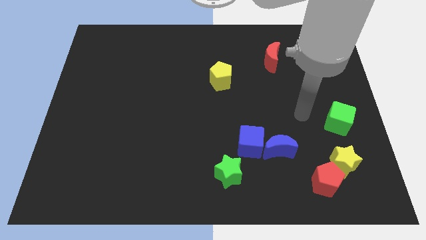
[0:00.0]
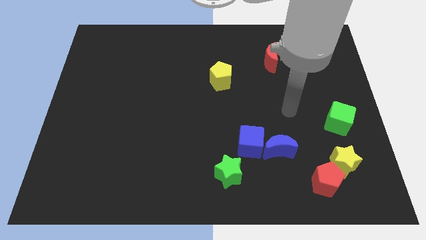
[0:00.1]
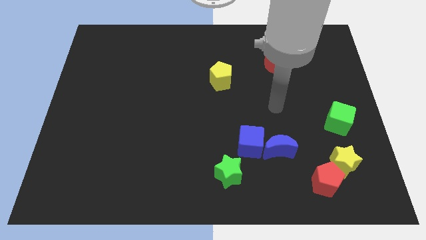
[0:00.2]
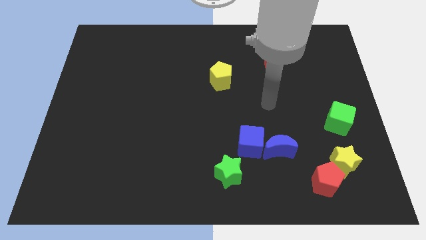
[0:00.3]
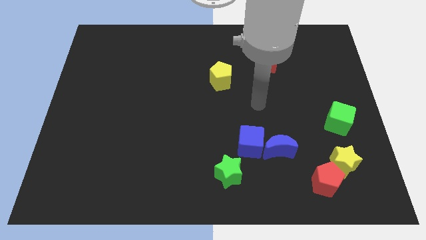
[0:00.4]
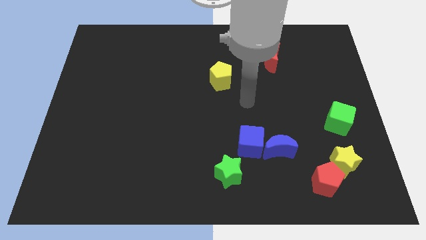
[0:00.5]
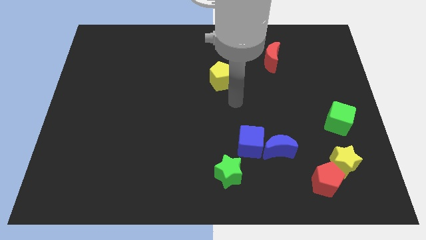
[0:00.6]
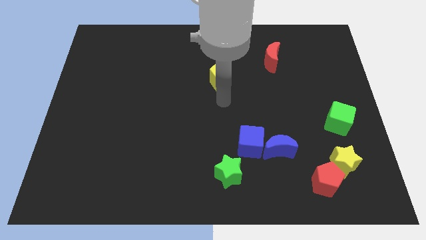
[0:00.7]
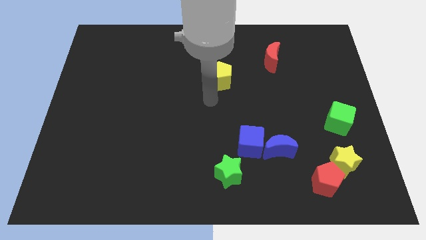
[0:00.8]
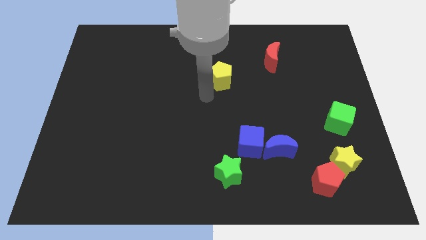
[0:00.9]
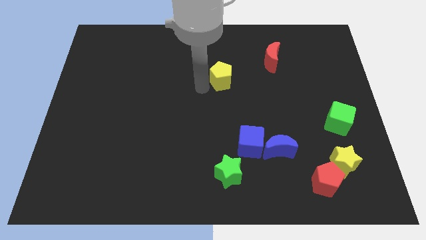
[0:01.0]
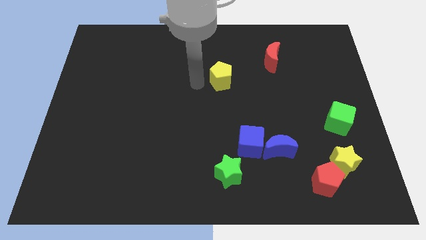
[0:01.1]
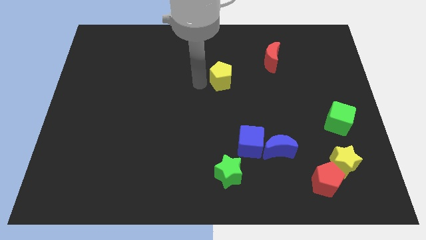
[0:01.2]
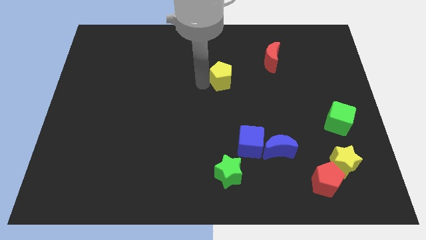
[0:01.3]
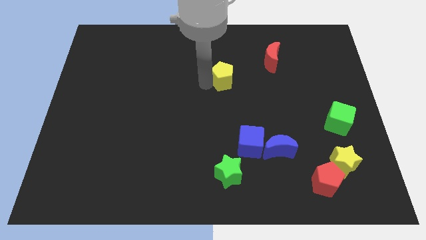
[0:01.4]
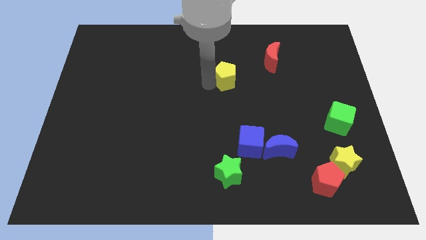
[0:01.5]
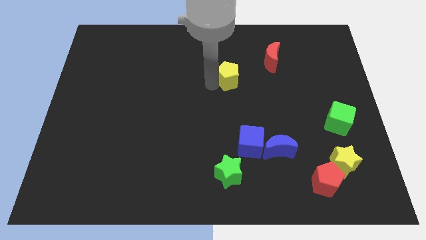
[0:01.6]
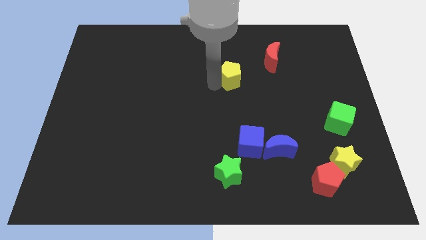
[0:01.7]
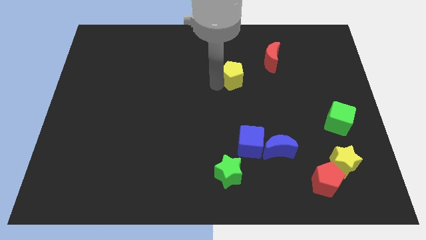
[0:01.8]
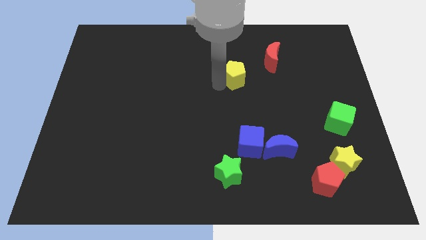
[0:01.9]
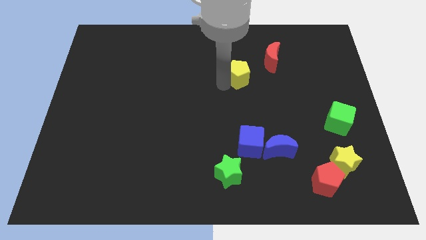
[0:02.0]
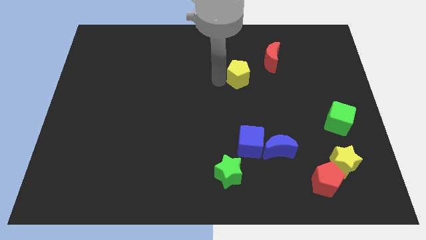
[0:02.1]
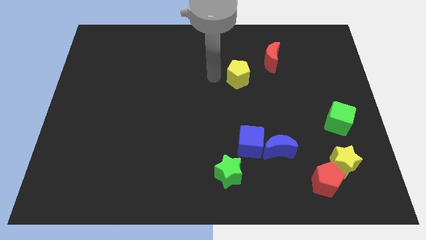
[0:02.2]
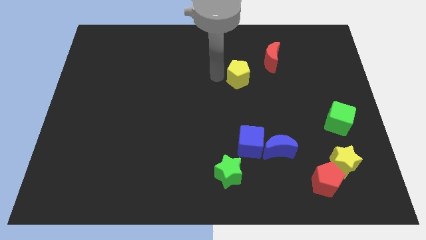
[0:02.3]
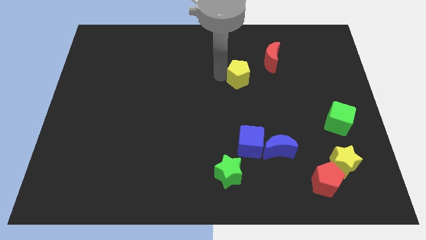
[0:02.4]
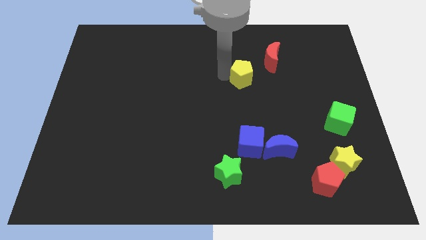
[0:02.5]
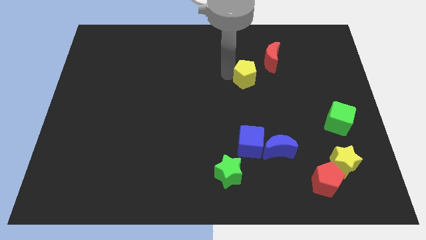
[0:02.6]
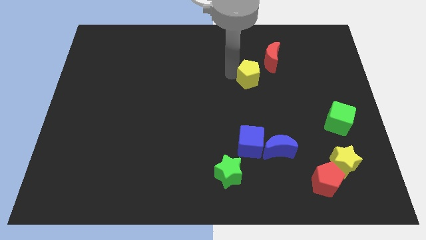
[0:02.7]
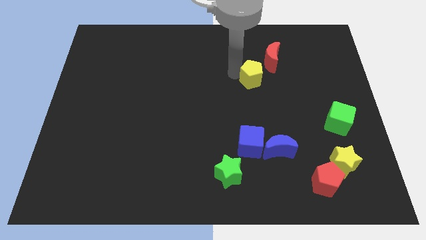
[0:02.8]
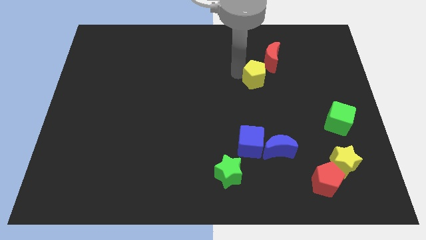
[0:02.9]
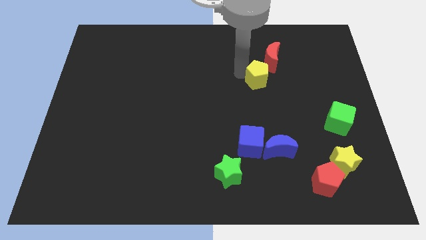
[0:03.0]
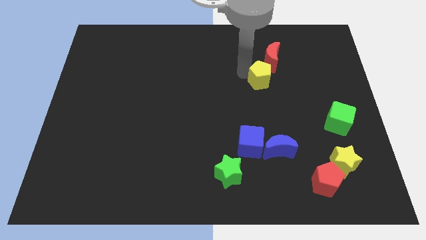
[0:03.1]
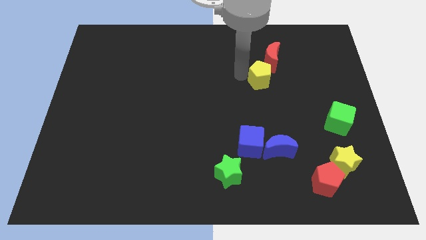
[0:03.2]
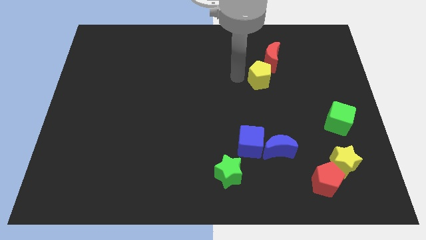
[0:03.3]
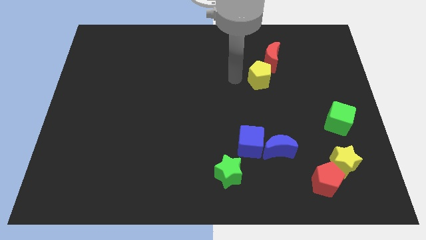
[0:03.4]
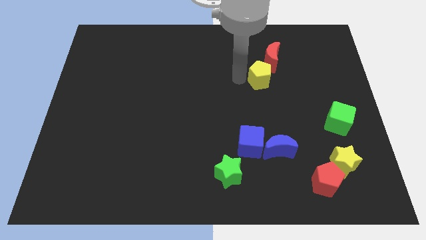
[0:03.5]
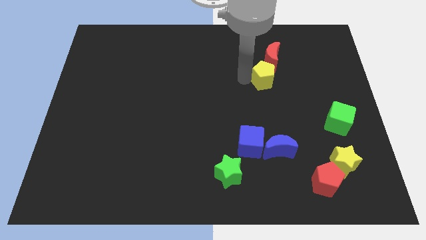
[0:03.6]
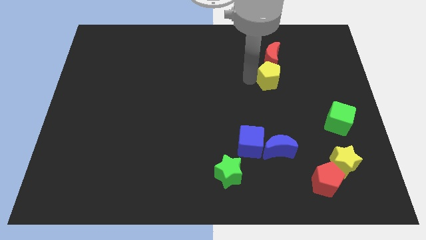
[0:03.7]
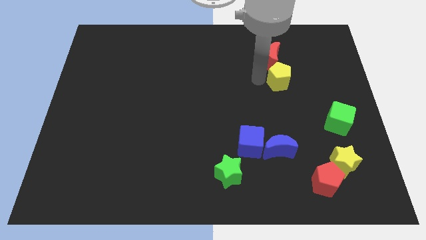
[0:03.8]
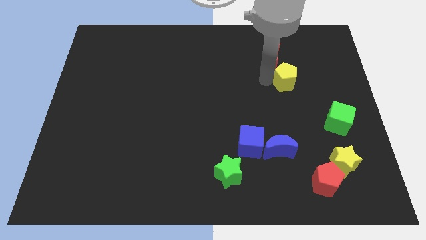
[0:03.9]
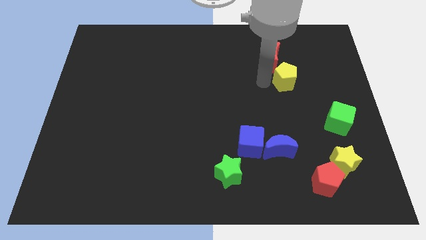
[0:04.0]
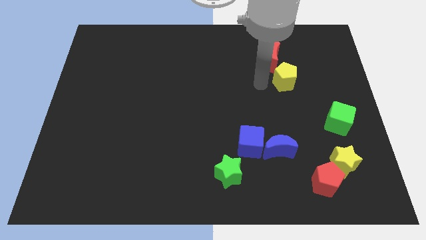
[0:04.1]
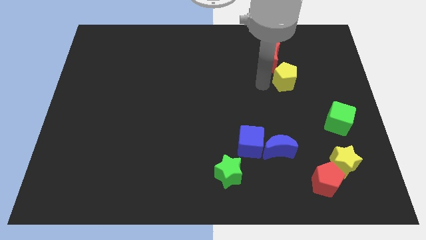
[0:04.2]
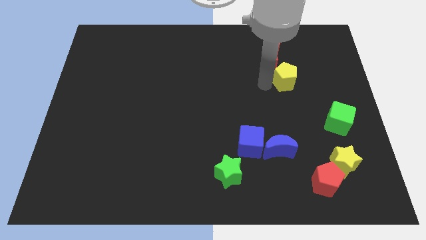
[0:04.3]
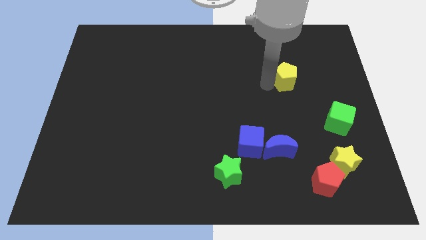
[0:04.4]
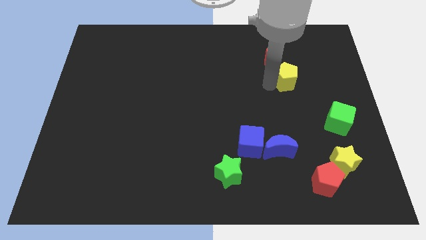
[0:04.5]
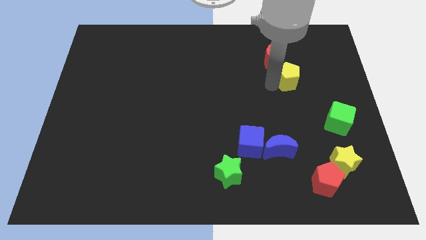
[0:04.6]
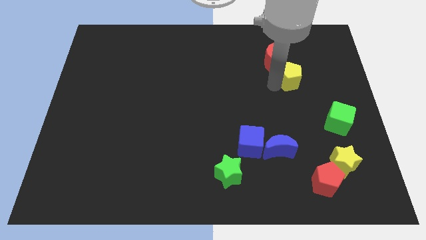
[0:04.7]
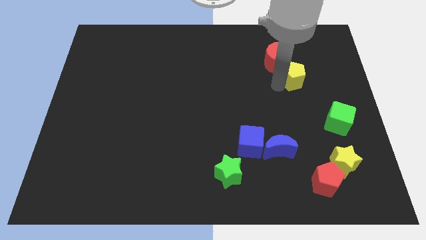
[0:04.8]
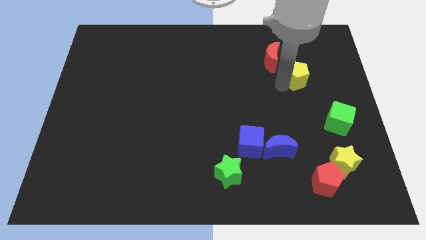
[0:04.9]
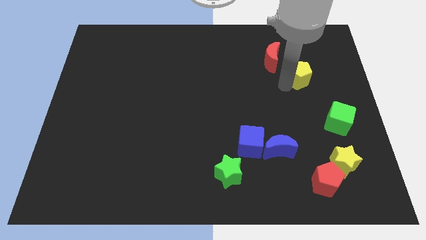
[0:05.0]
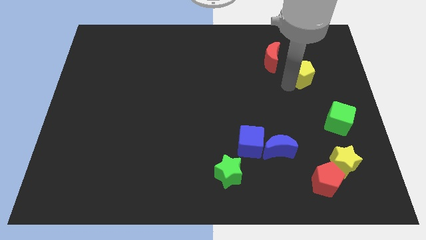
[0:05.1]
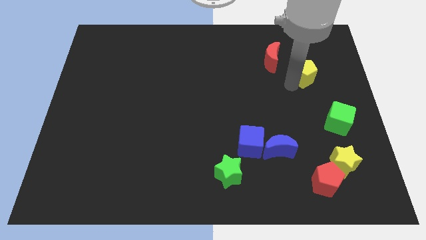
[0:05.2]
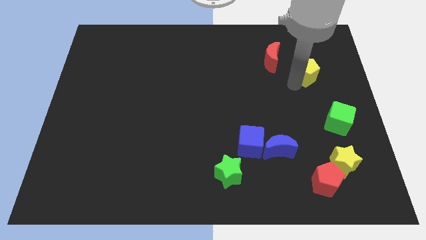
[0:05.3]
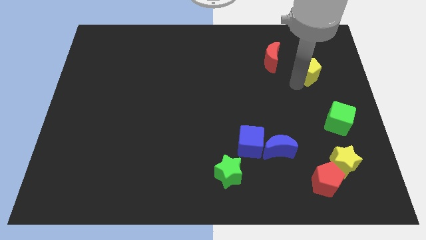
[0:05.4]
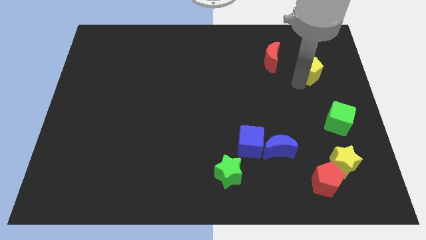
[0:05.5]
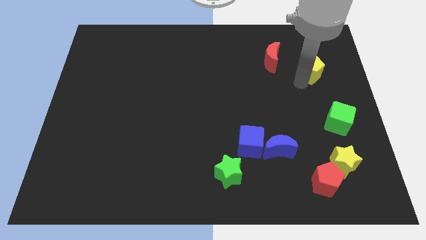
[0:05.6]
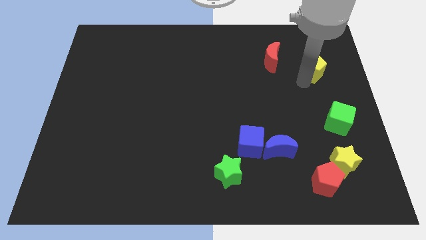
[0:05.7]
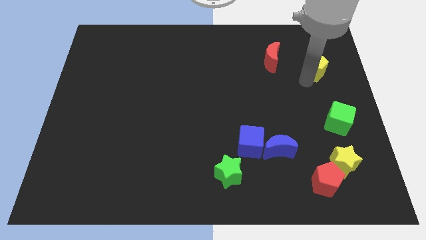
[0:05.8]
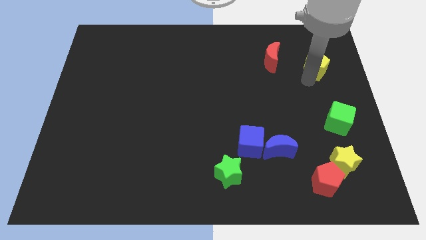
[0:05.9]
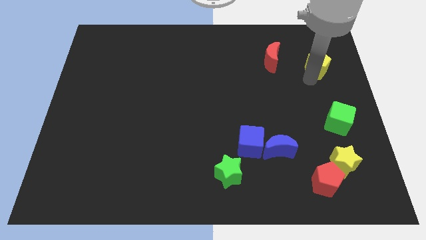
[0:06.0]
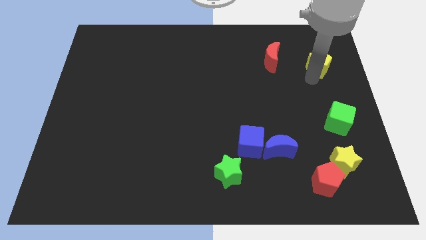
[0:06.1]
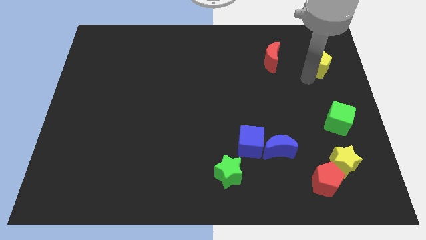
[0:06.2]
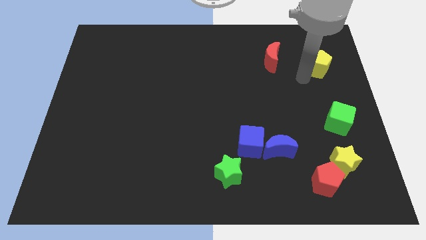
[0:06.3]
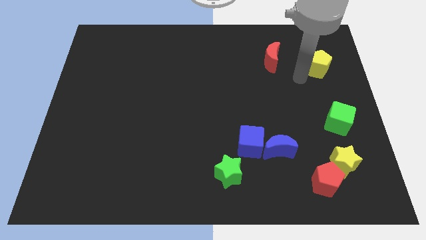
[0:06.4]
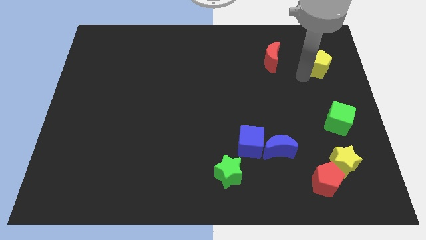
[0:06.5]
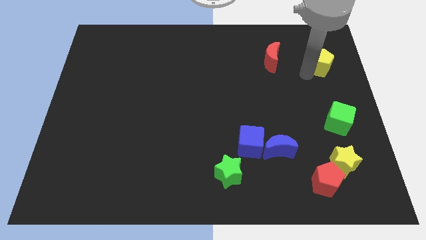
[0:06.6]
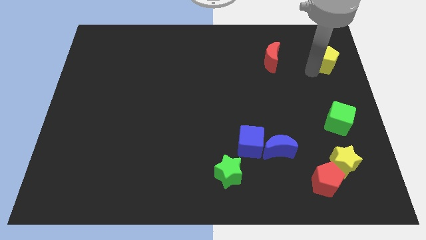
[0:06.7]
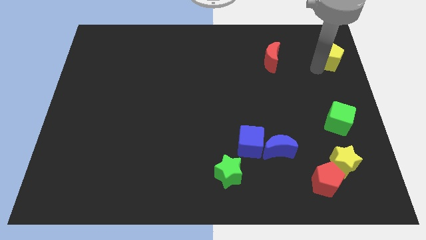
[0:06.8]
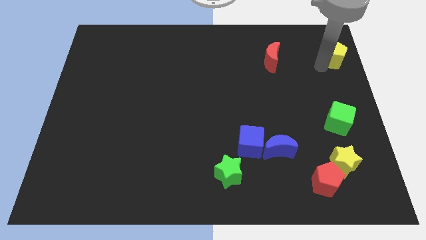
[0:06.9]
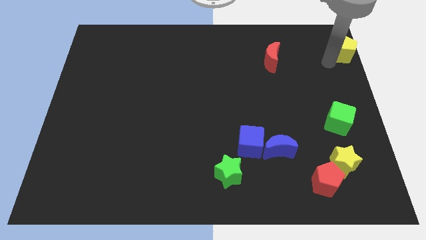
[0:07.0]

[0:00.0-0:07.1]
put the yellow pentagon to the top right corner
